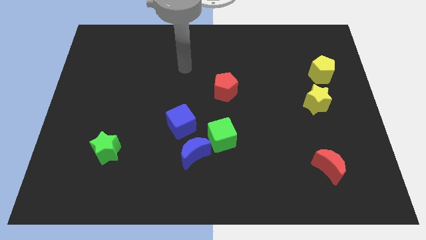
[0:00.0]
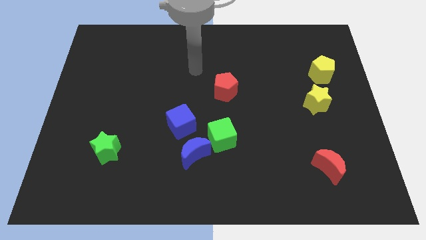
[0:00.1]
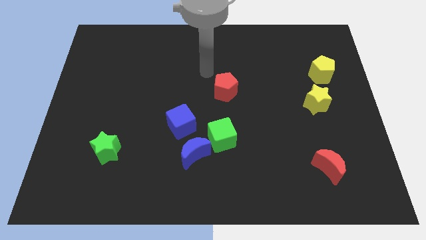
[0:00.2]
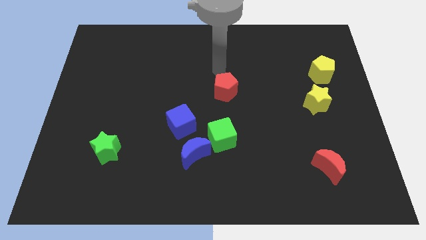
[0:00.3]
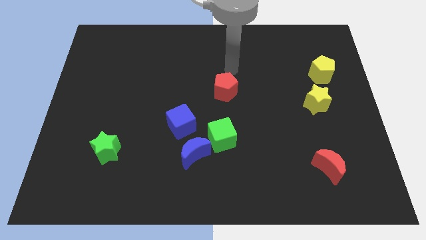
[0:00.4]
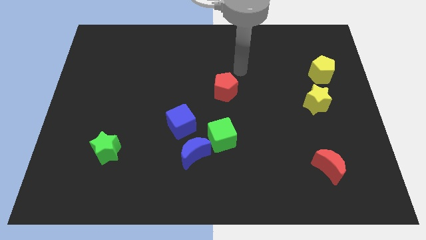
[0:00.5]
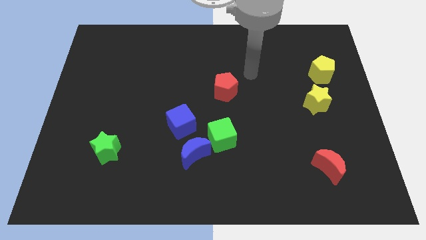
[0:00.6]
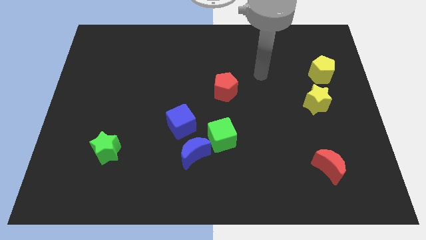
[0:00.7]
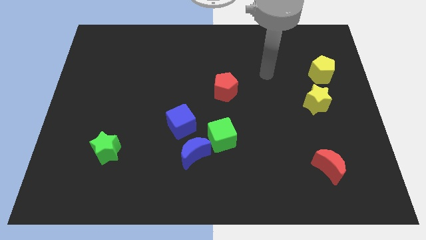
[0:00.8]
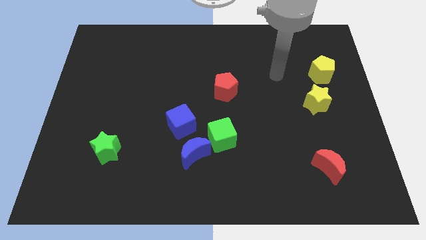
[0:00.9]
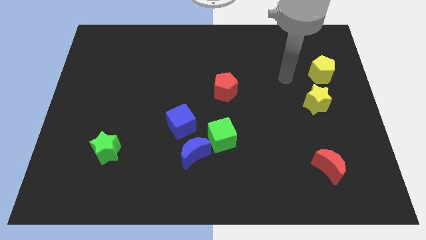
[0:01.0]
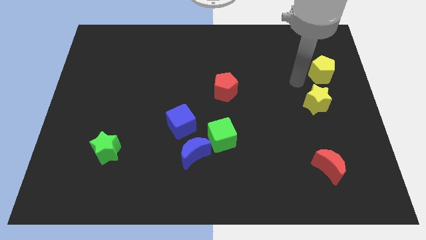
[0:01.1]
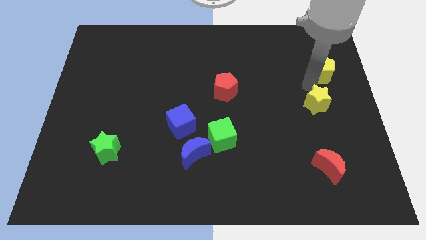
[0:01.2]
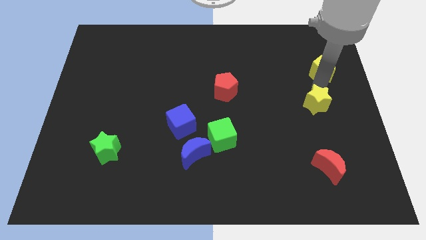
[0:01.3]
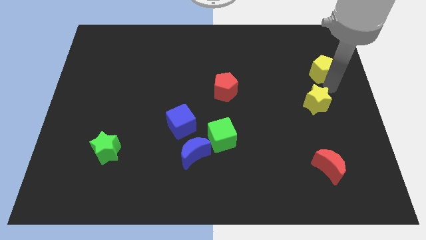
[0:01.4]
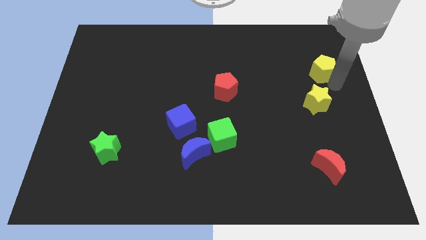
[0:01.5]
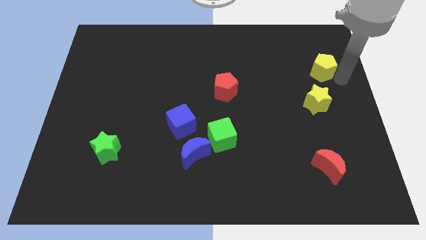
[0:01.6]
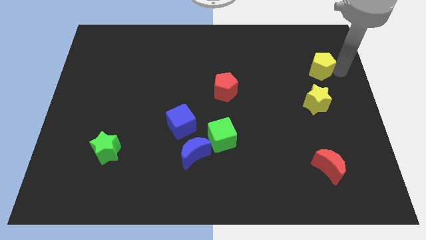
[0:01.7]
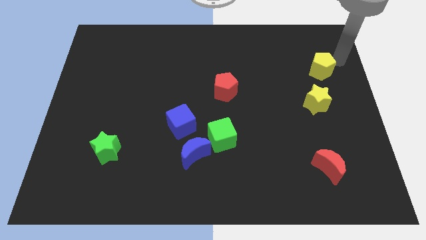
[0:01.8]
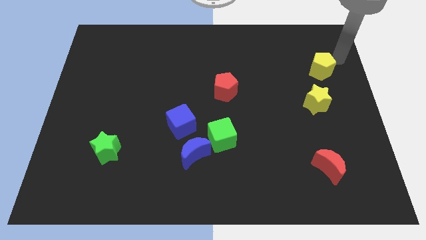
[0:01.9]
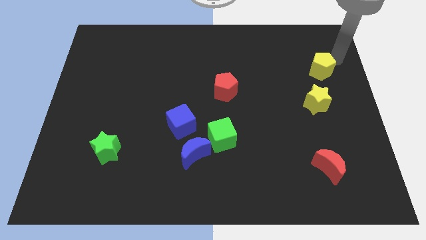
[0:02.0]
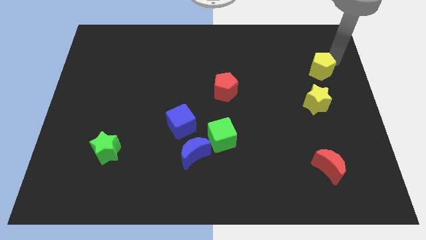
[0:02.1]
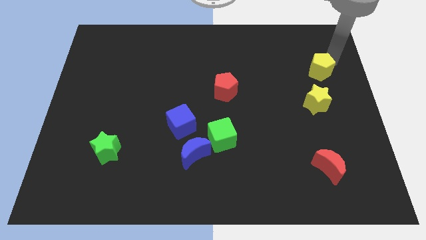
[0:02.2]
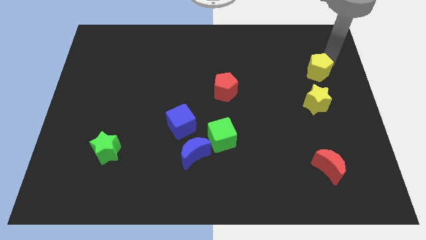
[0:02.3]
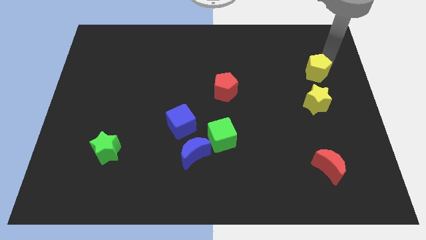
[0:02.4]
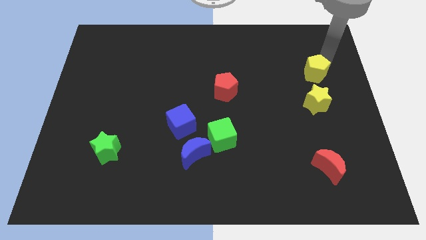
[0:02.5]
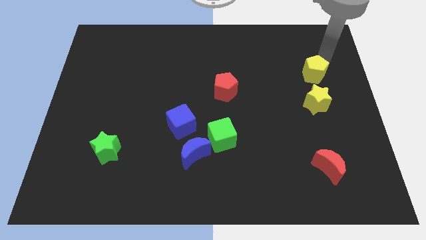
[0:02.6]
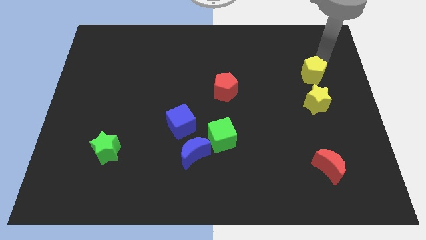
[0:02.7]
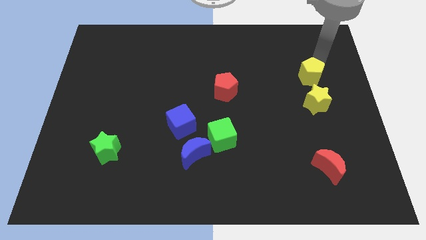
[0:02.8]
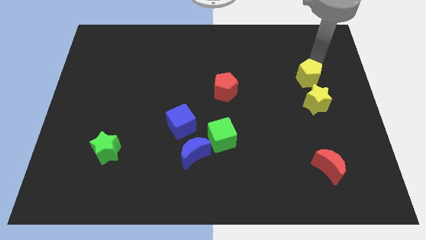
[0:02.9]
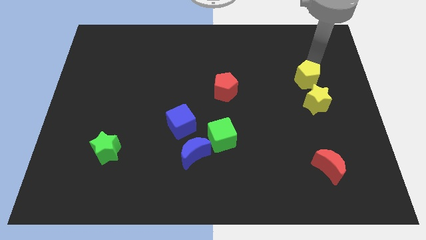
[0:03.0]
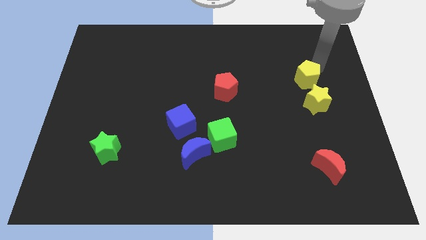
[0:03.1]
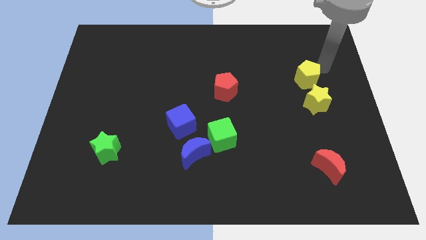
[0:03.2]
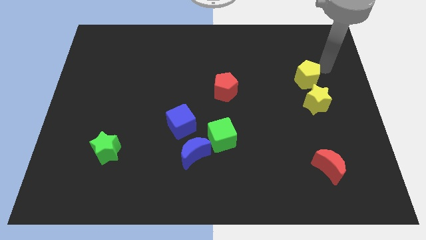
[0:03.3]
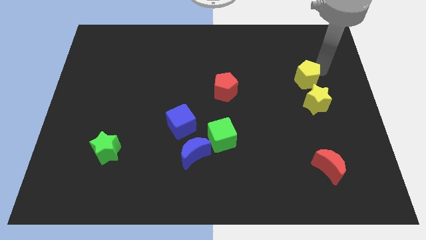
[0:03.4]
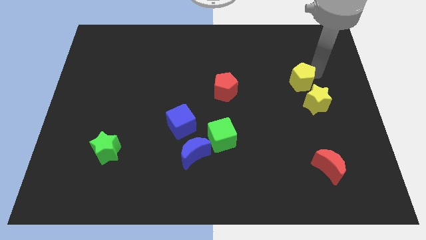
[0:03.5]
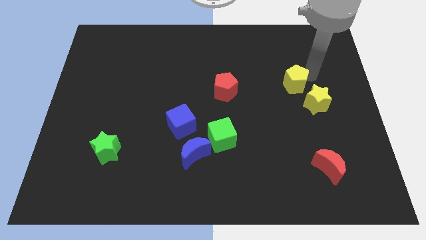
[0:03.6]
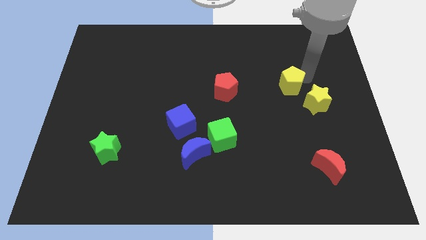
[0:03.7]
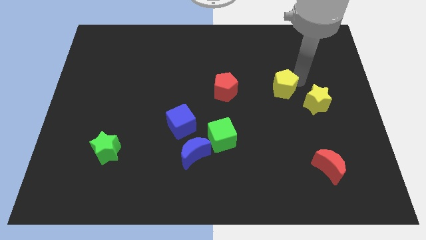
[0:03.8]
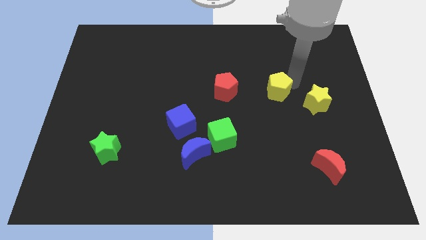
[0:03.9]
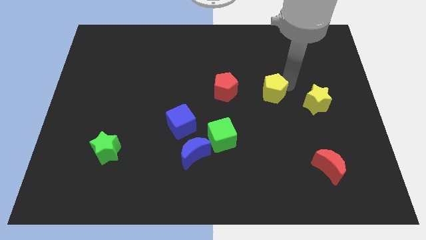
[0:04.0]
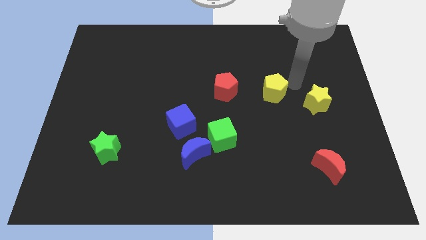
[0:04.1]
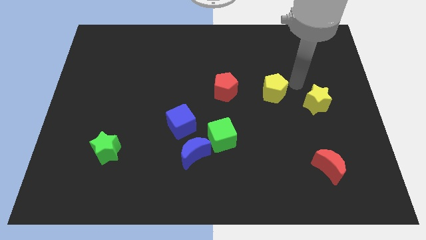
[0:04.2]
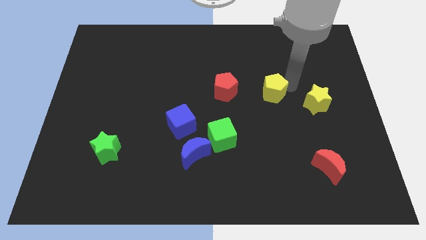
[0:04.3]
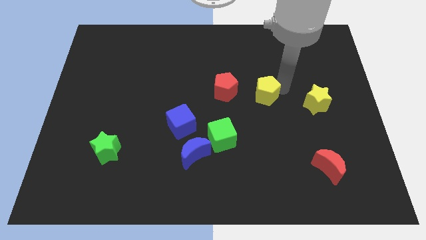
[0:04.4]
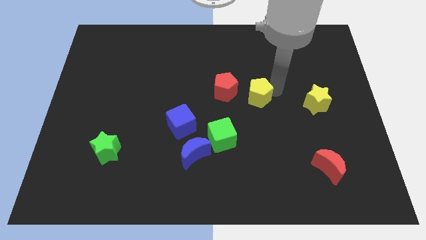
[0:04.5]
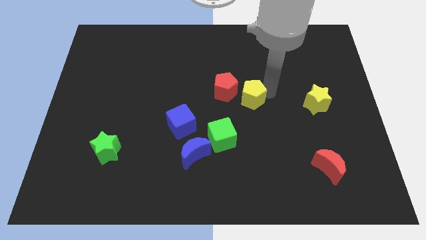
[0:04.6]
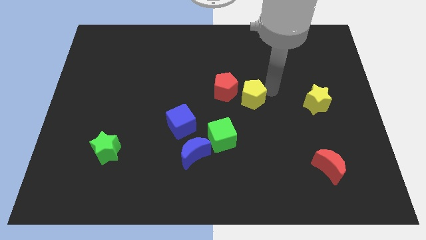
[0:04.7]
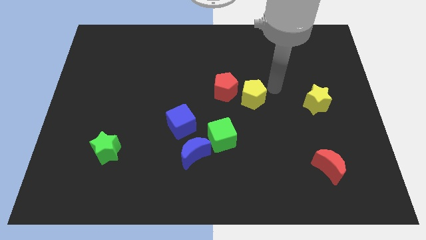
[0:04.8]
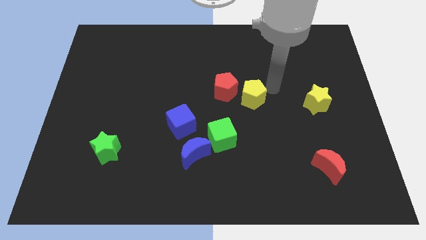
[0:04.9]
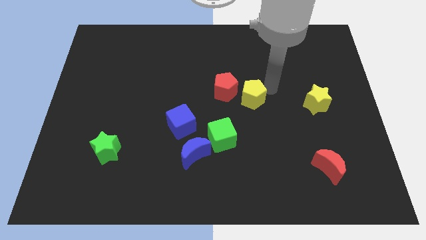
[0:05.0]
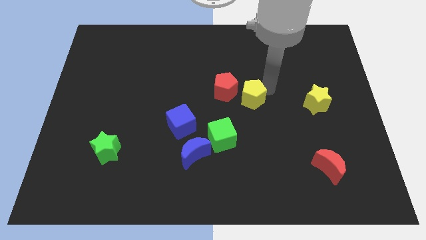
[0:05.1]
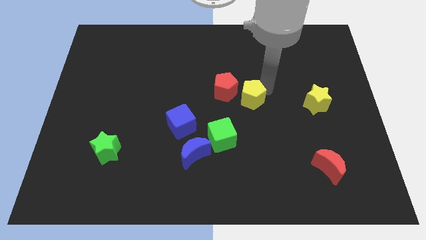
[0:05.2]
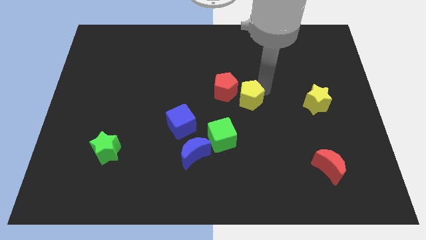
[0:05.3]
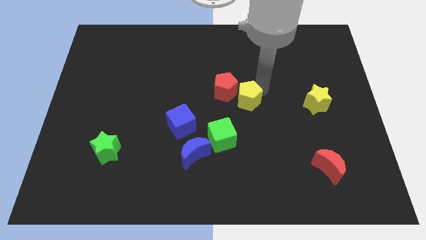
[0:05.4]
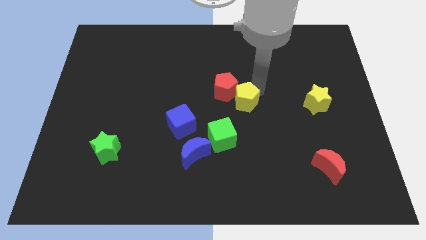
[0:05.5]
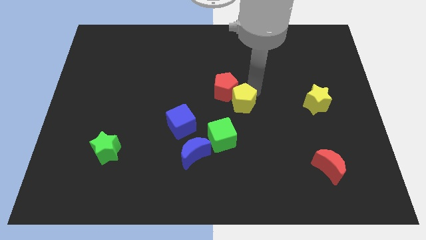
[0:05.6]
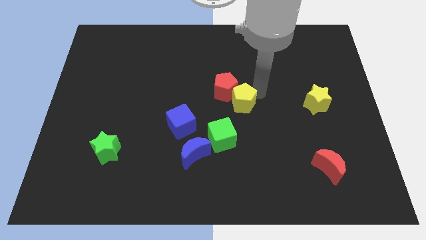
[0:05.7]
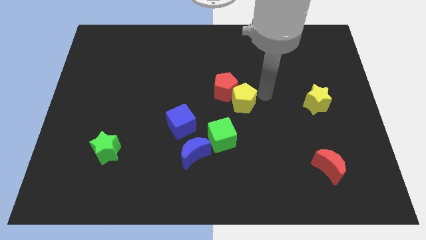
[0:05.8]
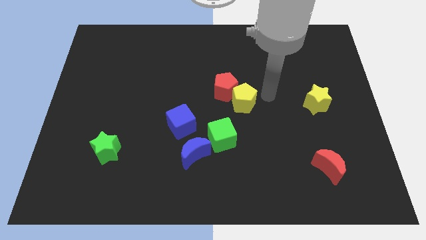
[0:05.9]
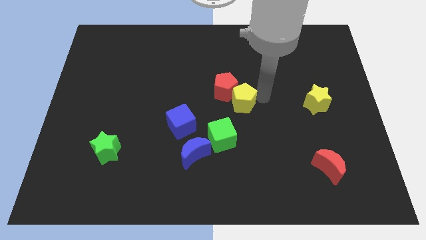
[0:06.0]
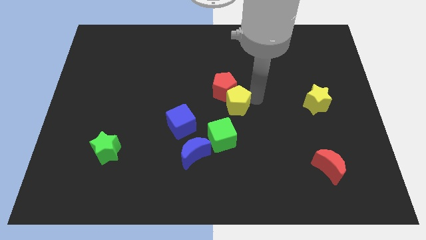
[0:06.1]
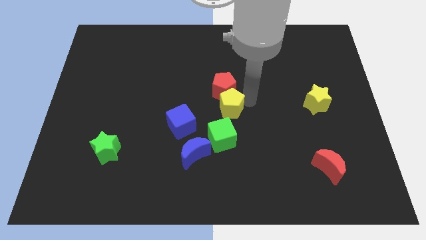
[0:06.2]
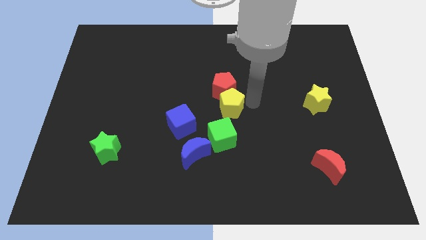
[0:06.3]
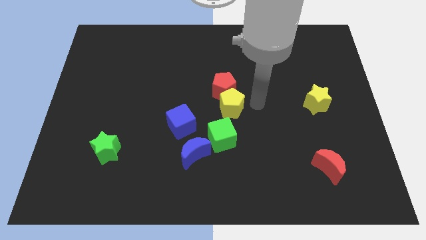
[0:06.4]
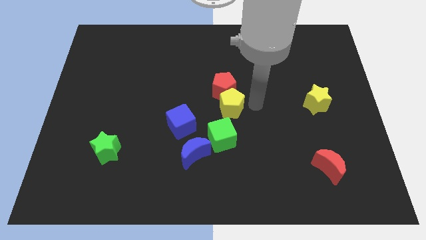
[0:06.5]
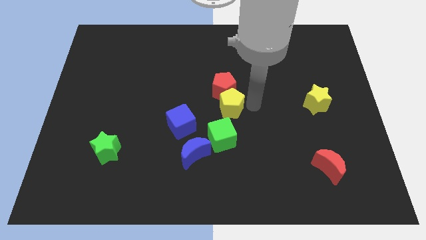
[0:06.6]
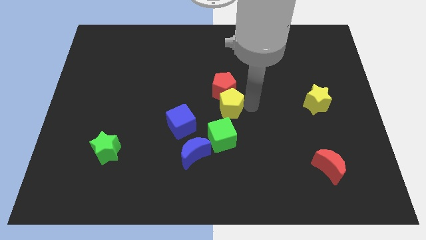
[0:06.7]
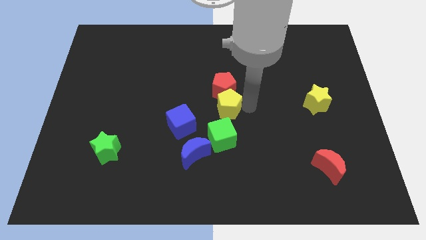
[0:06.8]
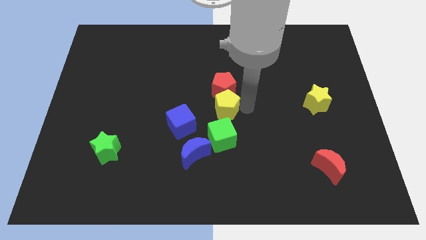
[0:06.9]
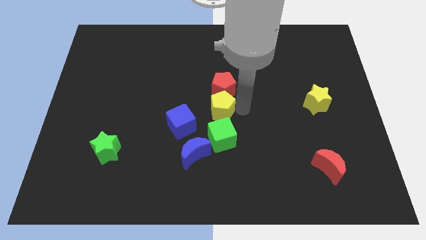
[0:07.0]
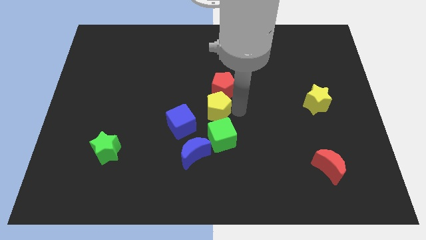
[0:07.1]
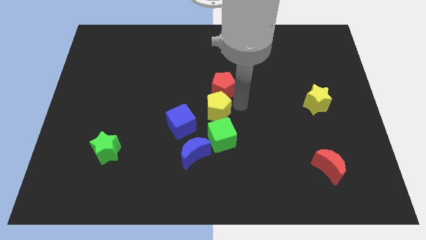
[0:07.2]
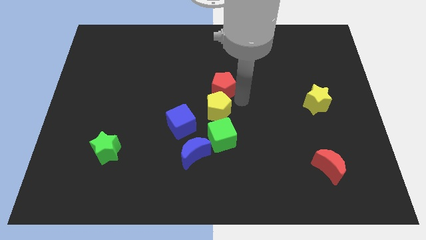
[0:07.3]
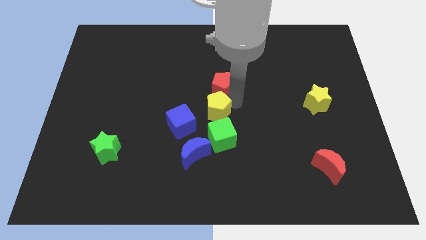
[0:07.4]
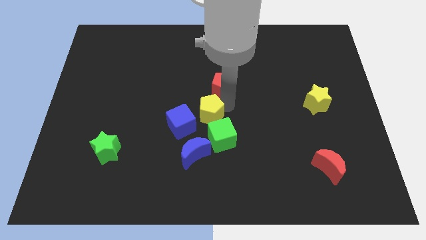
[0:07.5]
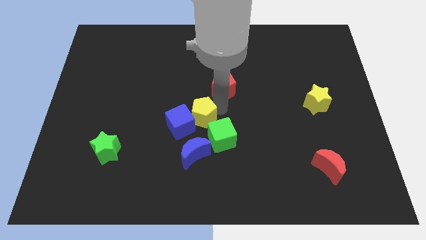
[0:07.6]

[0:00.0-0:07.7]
push the yellow pentagon to the blue cube
